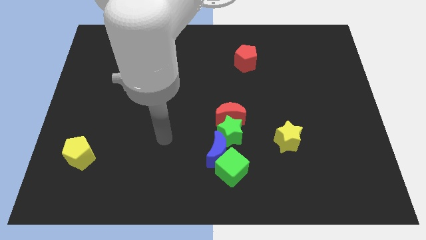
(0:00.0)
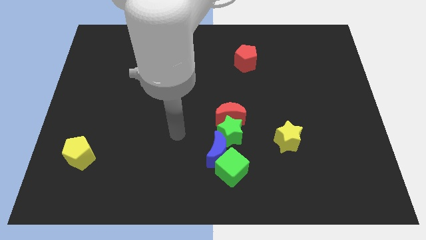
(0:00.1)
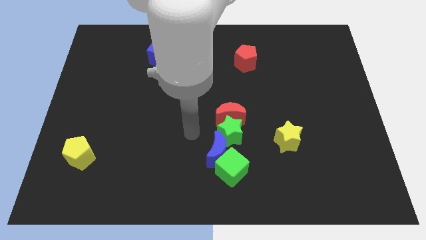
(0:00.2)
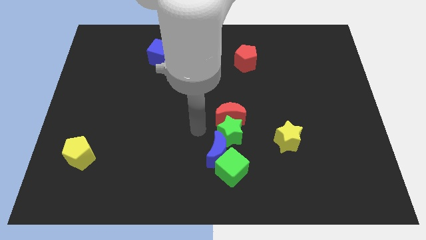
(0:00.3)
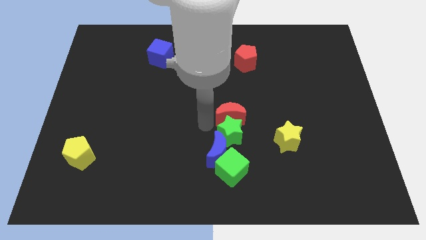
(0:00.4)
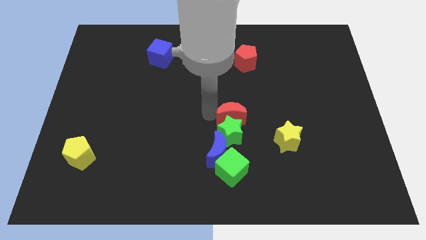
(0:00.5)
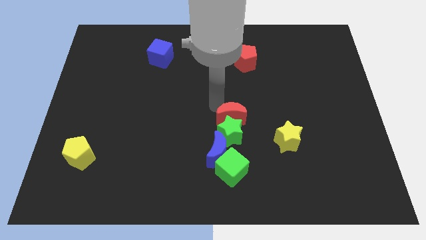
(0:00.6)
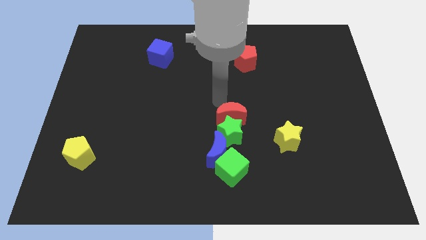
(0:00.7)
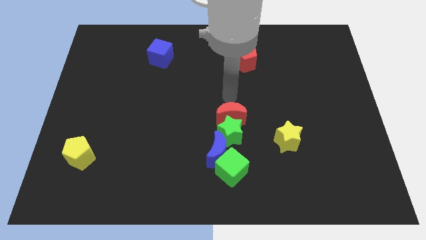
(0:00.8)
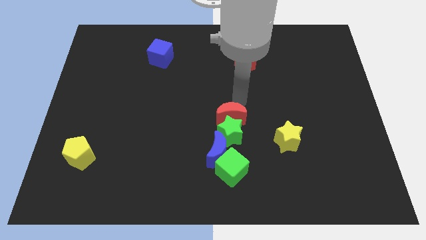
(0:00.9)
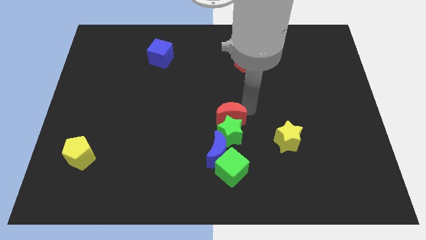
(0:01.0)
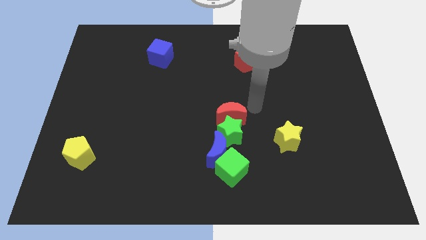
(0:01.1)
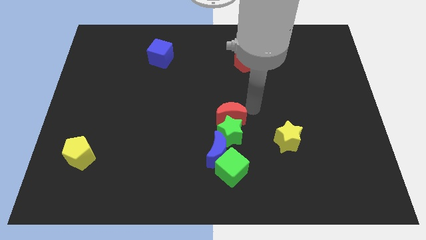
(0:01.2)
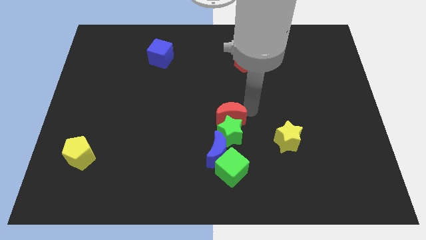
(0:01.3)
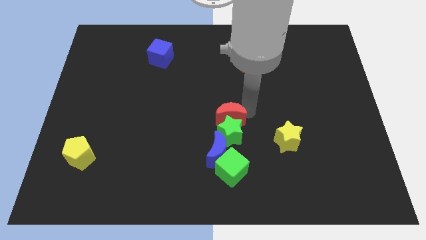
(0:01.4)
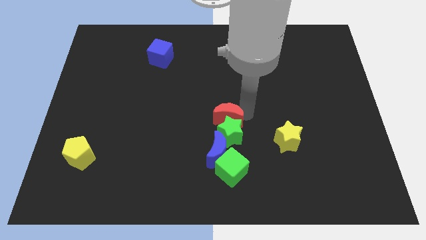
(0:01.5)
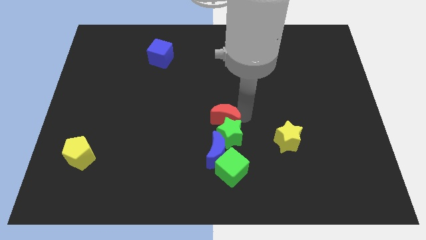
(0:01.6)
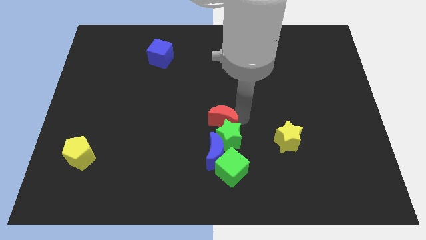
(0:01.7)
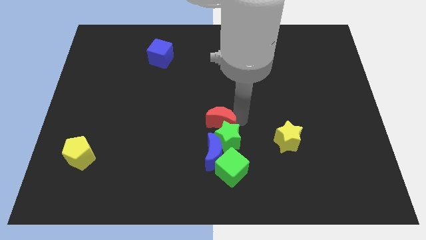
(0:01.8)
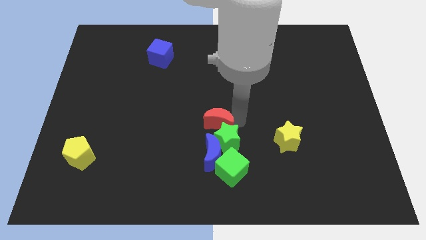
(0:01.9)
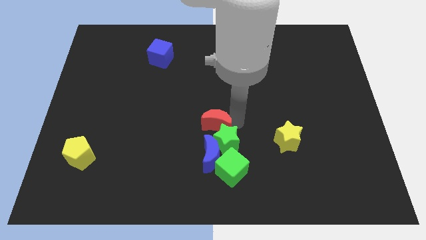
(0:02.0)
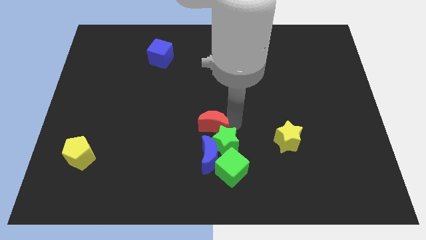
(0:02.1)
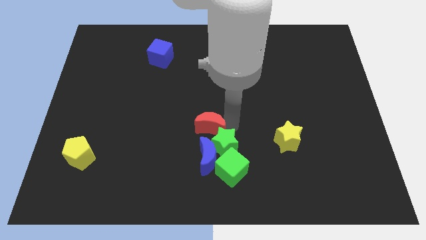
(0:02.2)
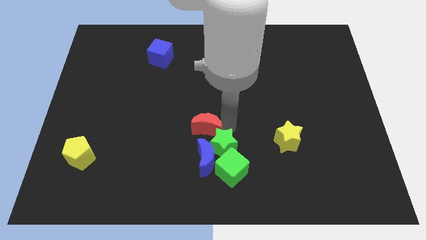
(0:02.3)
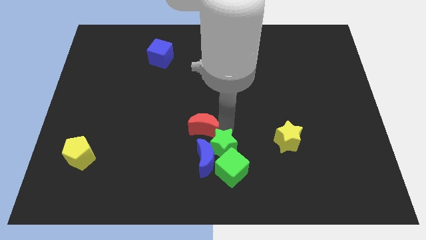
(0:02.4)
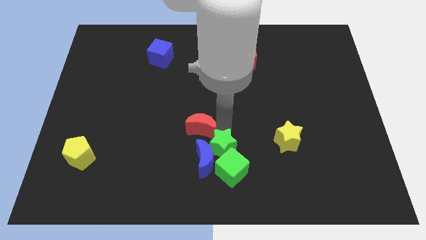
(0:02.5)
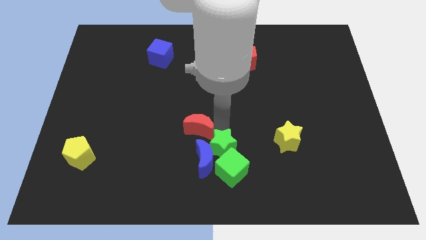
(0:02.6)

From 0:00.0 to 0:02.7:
move the red moon a little bit diagonally down and left

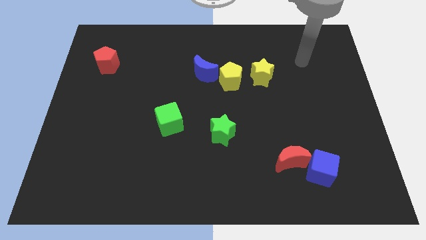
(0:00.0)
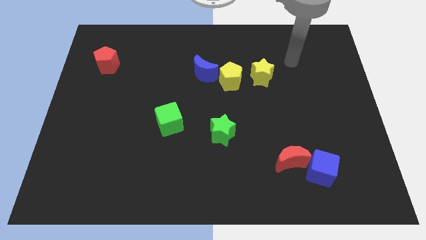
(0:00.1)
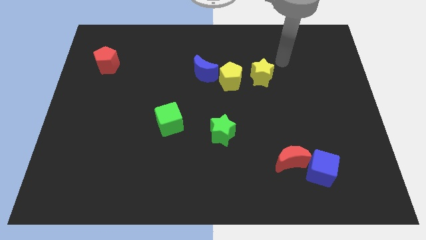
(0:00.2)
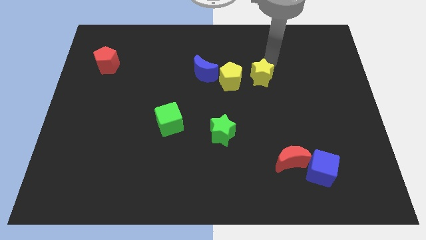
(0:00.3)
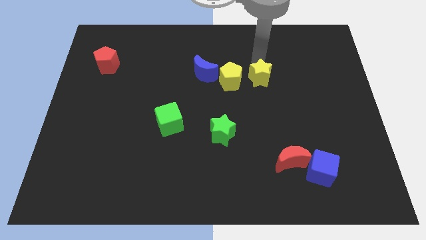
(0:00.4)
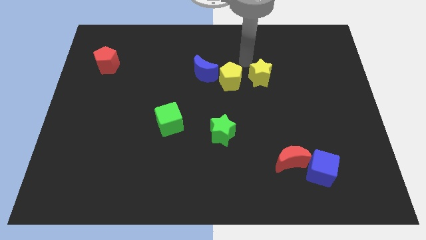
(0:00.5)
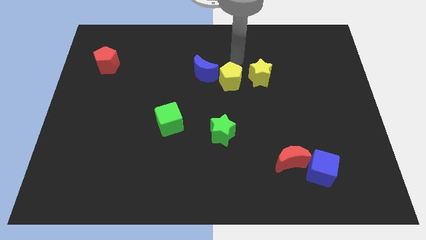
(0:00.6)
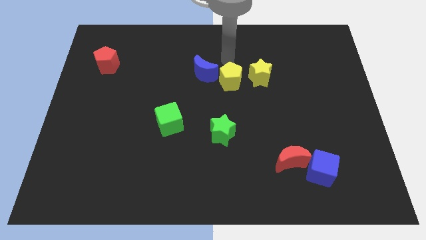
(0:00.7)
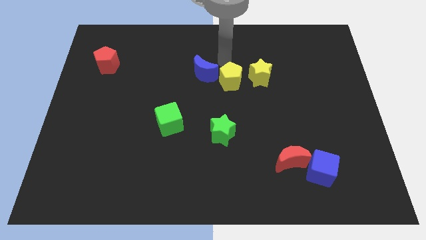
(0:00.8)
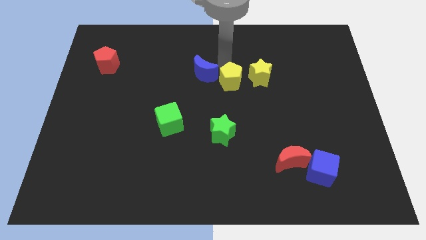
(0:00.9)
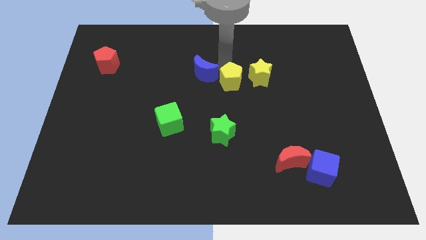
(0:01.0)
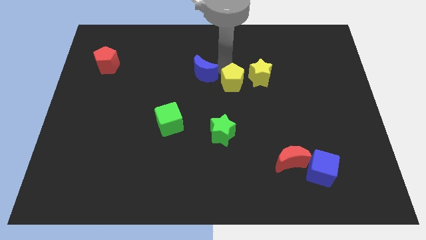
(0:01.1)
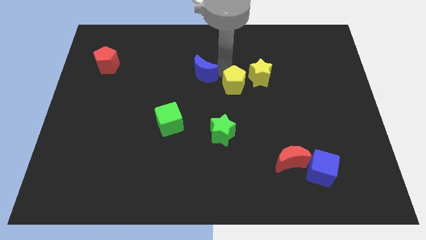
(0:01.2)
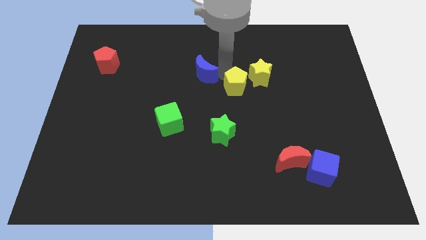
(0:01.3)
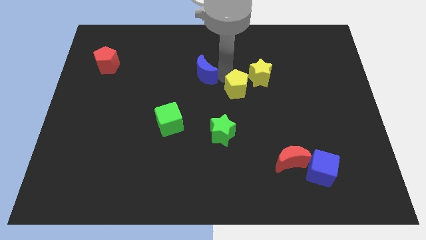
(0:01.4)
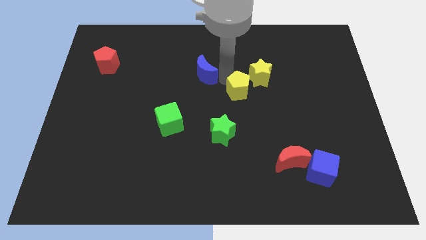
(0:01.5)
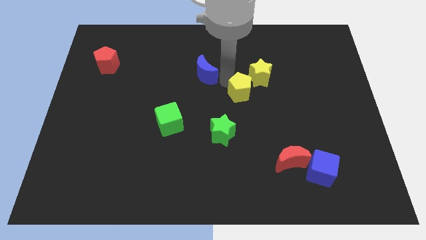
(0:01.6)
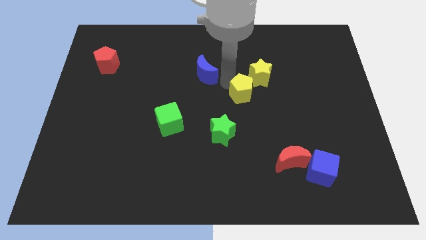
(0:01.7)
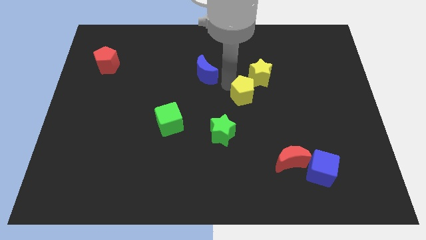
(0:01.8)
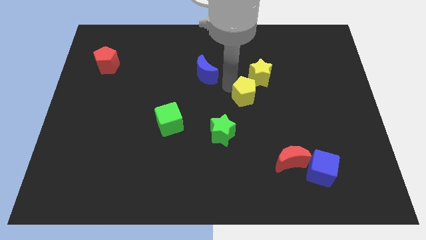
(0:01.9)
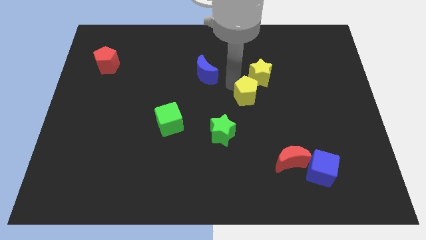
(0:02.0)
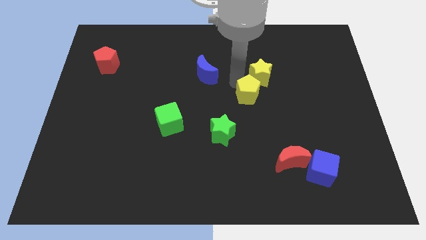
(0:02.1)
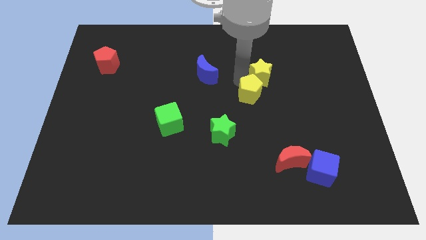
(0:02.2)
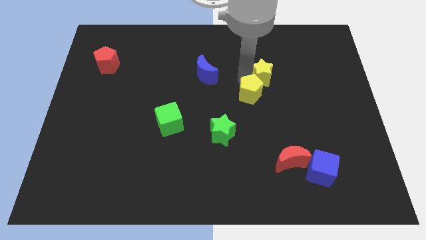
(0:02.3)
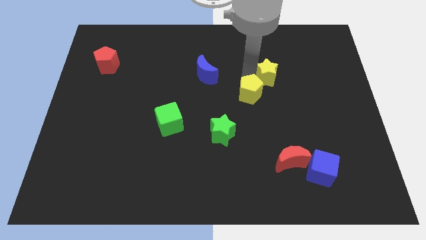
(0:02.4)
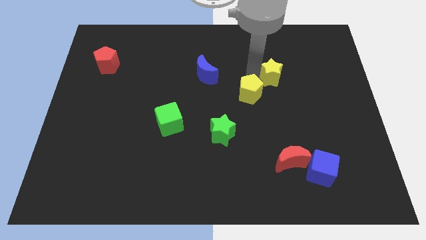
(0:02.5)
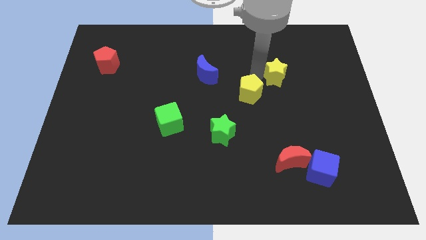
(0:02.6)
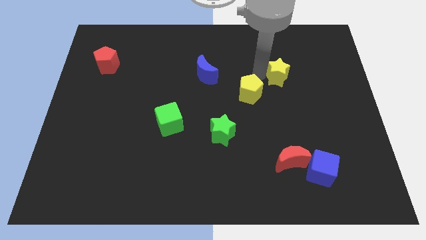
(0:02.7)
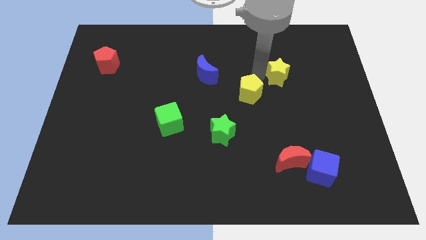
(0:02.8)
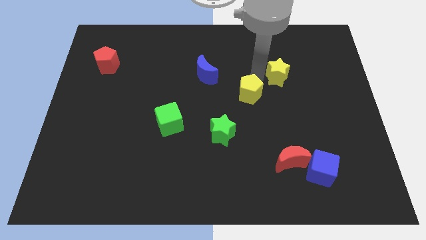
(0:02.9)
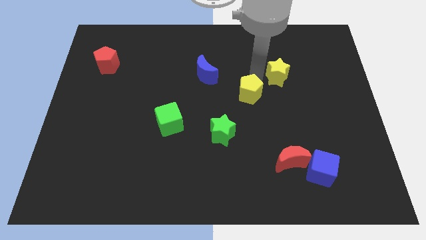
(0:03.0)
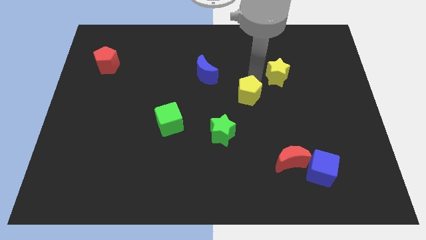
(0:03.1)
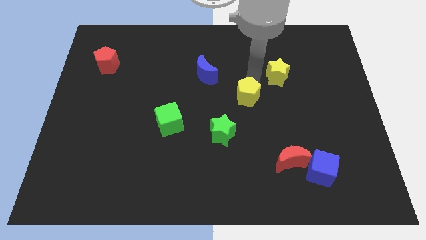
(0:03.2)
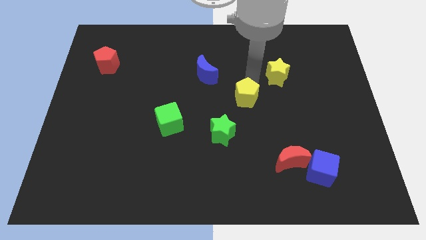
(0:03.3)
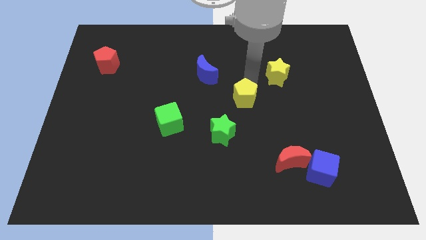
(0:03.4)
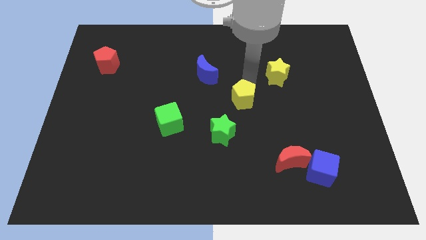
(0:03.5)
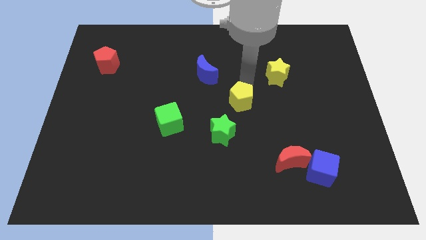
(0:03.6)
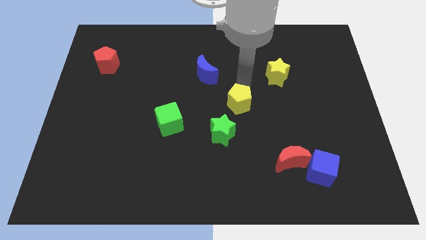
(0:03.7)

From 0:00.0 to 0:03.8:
slightly push the yellow pentagon down

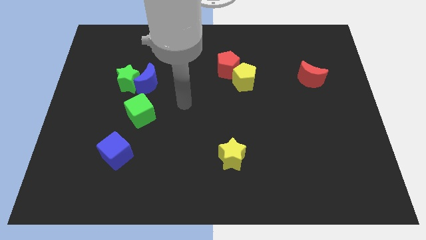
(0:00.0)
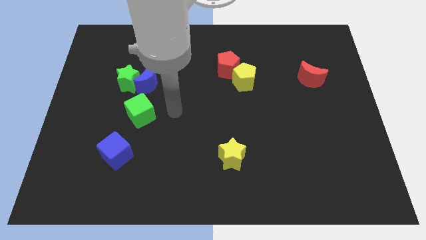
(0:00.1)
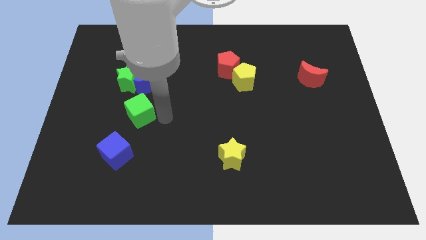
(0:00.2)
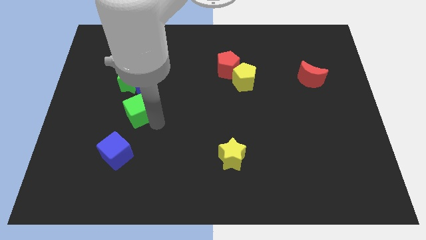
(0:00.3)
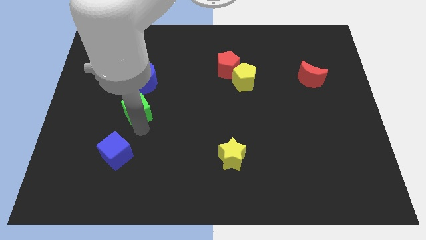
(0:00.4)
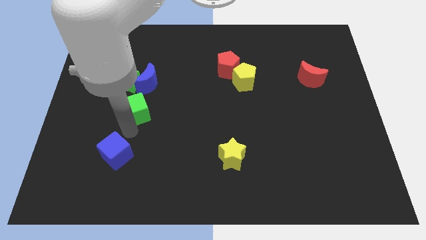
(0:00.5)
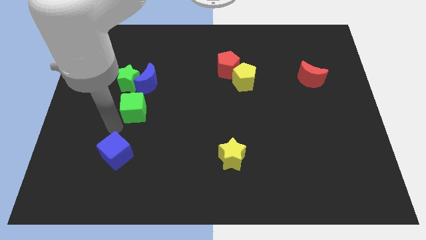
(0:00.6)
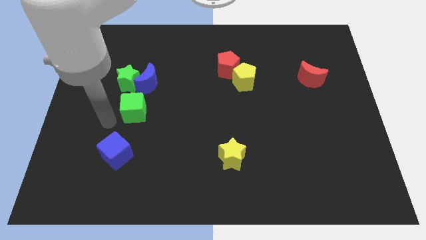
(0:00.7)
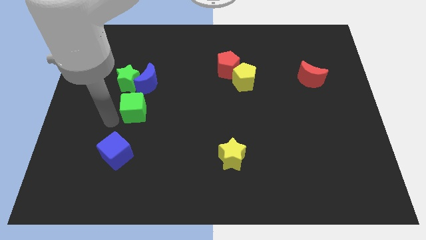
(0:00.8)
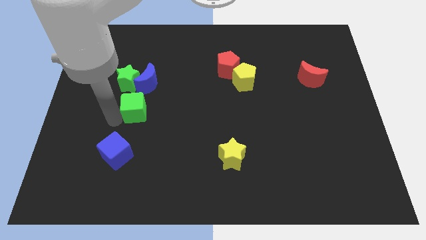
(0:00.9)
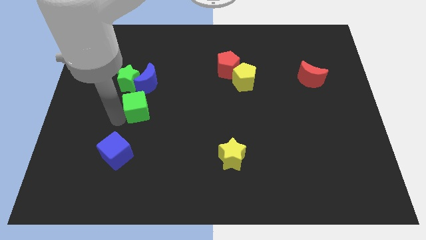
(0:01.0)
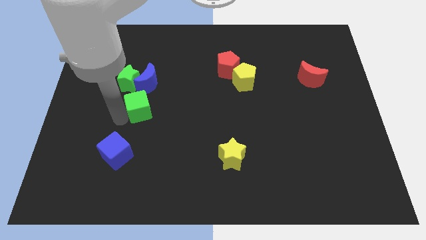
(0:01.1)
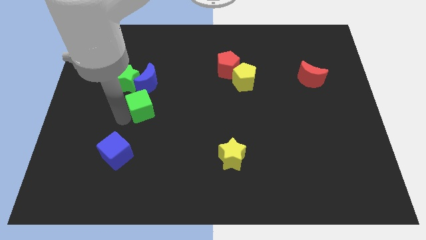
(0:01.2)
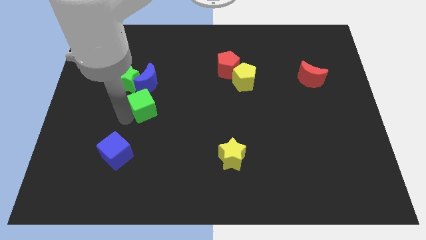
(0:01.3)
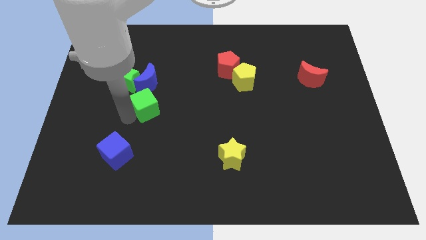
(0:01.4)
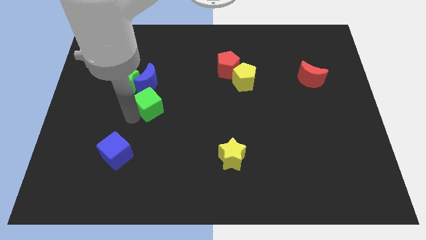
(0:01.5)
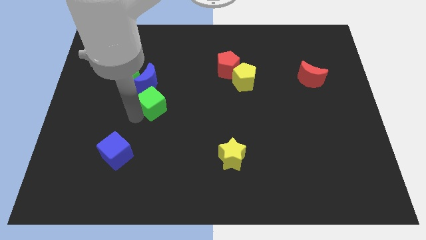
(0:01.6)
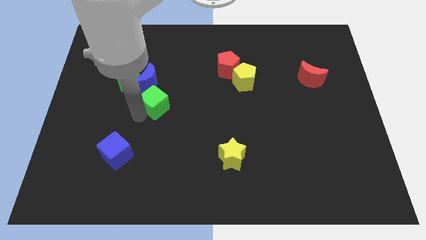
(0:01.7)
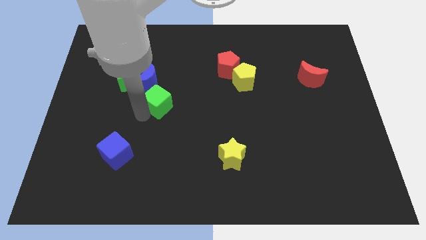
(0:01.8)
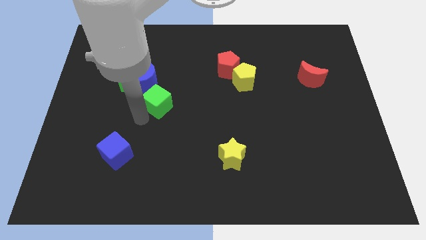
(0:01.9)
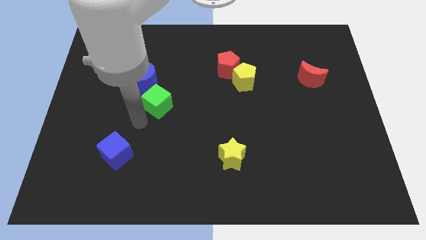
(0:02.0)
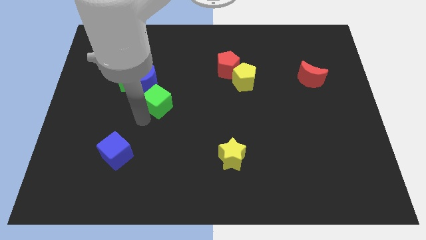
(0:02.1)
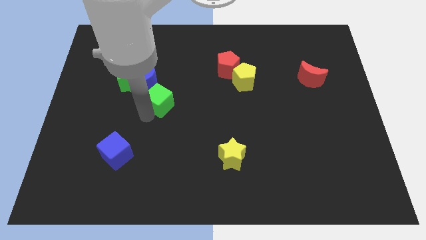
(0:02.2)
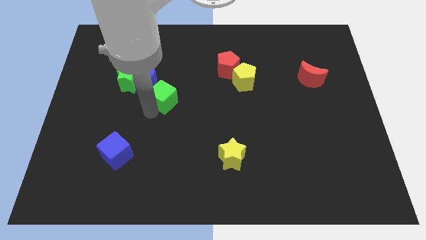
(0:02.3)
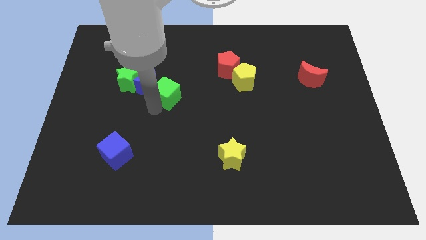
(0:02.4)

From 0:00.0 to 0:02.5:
slide the green cube somewhat up and right diagonally
